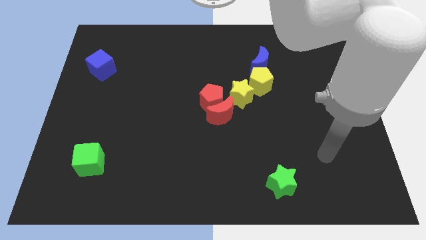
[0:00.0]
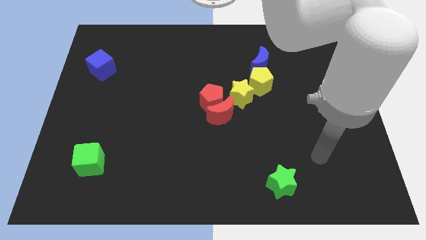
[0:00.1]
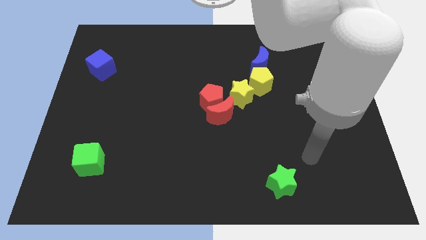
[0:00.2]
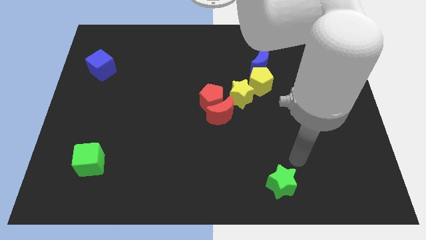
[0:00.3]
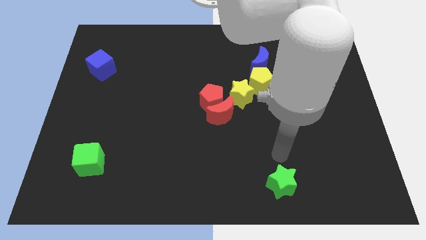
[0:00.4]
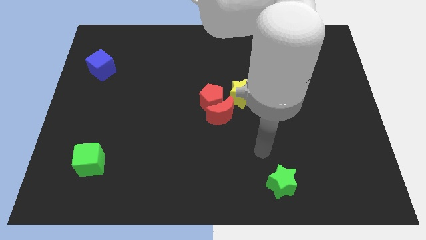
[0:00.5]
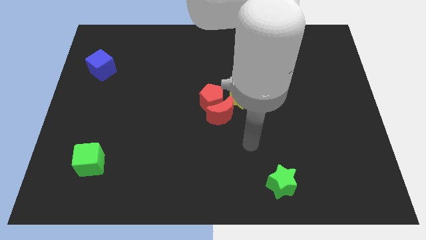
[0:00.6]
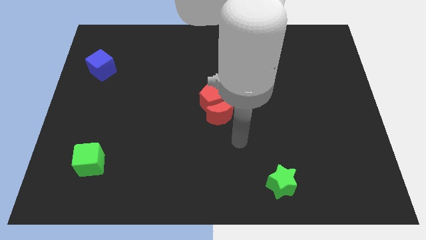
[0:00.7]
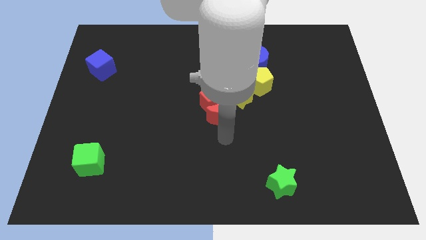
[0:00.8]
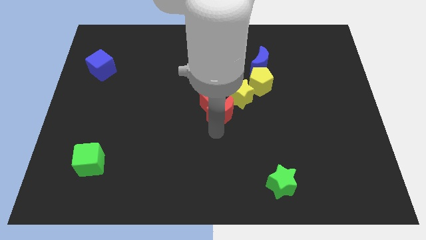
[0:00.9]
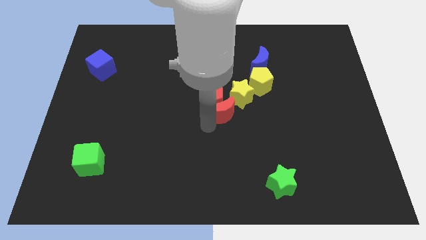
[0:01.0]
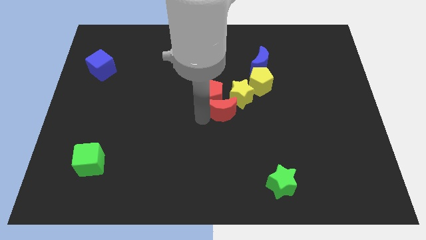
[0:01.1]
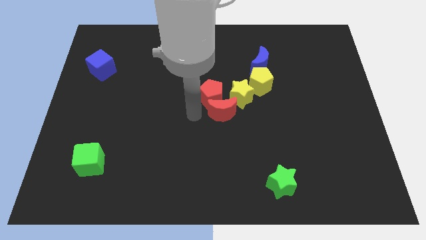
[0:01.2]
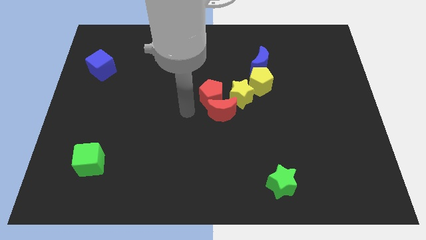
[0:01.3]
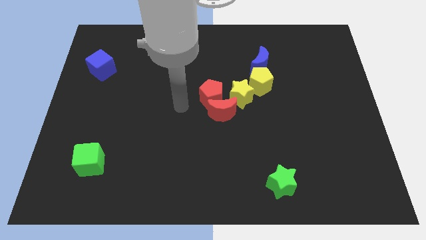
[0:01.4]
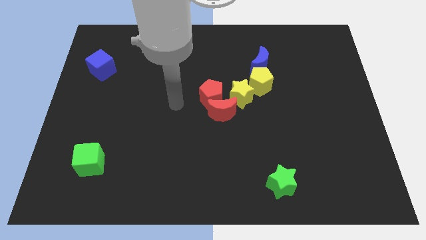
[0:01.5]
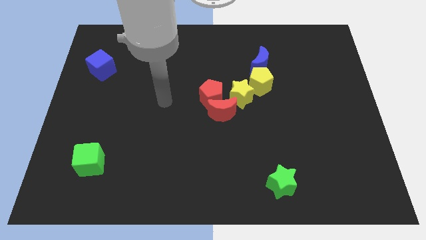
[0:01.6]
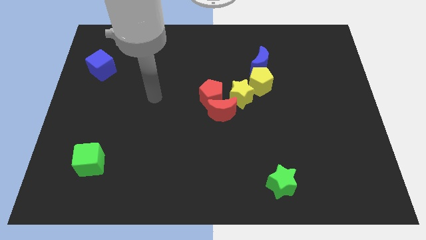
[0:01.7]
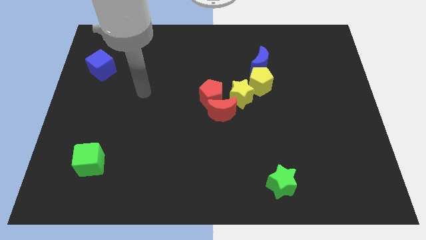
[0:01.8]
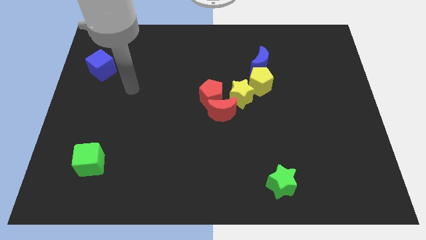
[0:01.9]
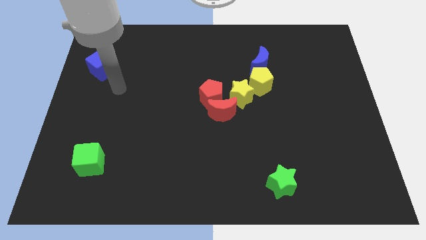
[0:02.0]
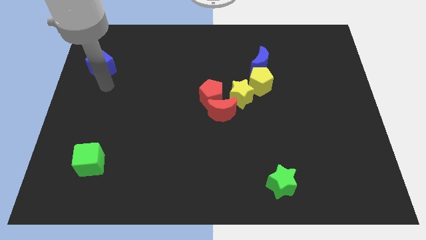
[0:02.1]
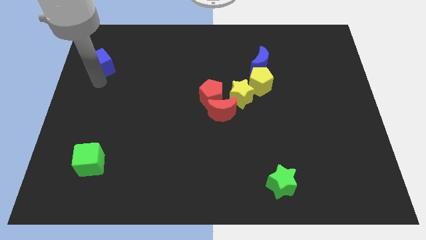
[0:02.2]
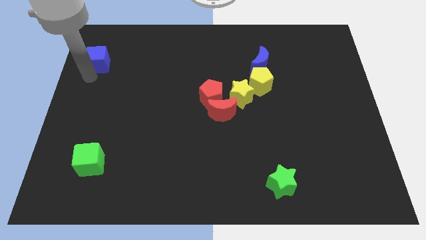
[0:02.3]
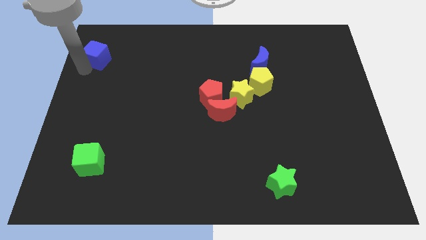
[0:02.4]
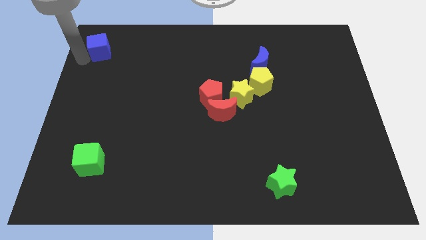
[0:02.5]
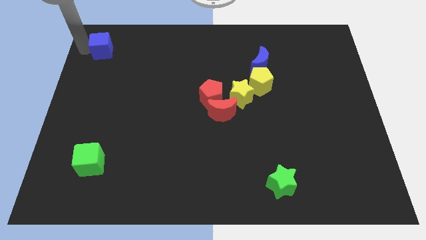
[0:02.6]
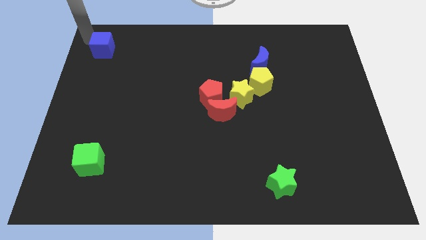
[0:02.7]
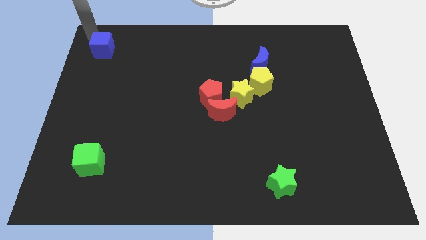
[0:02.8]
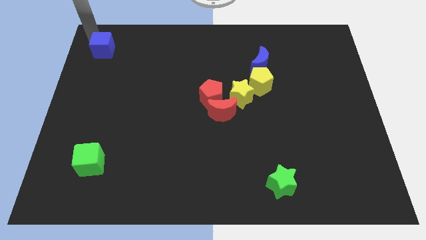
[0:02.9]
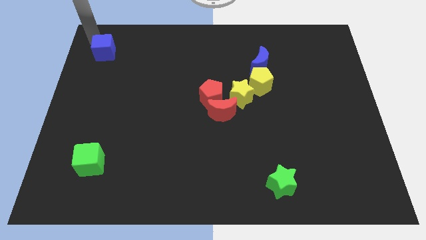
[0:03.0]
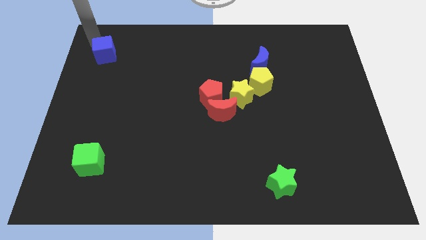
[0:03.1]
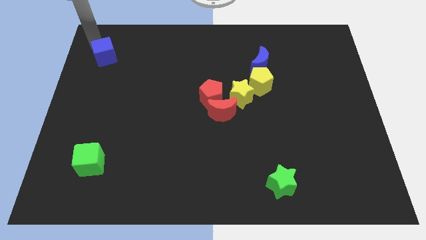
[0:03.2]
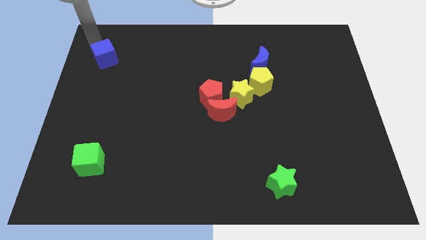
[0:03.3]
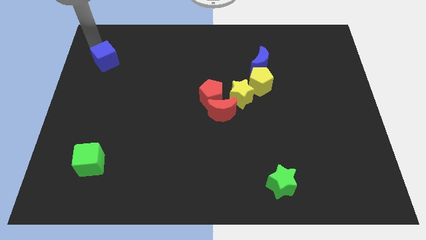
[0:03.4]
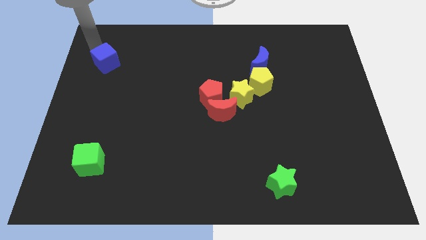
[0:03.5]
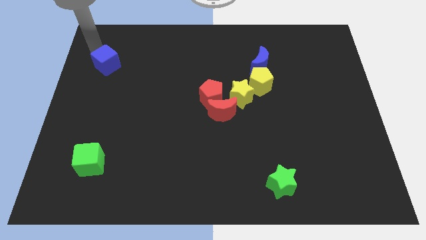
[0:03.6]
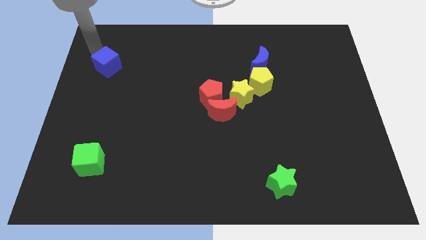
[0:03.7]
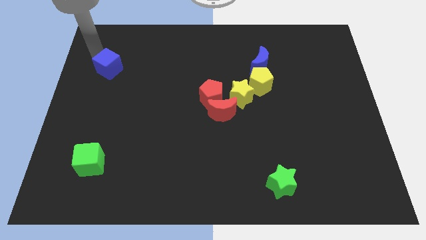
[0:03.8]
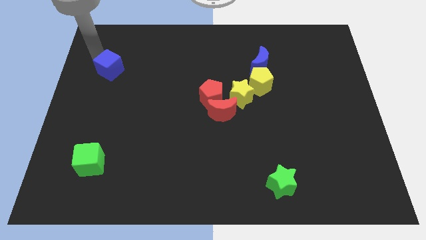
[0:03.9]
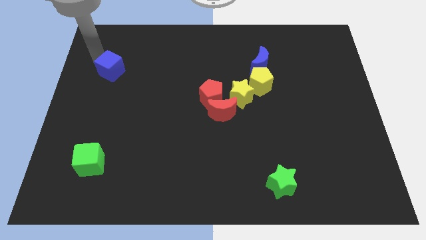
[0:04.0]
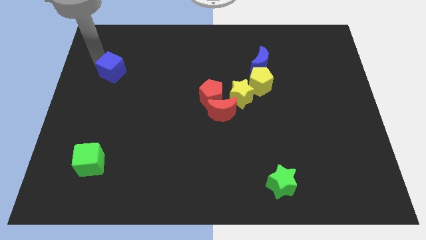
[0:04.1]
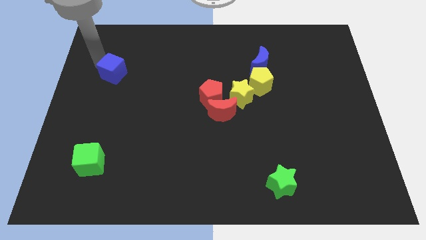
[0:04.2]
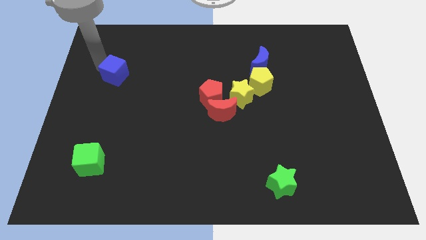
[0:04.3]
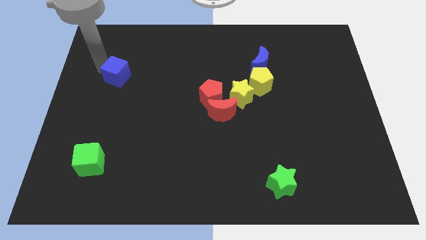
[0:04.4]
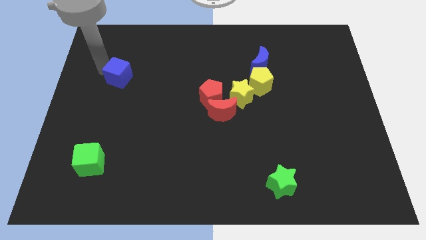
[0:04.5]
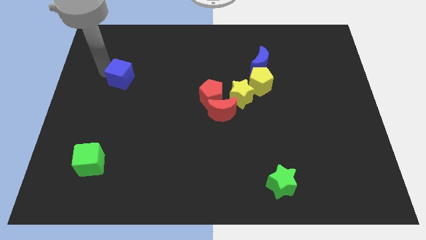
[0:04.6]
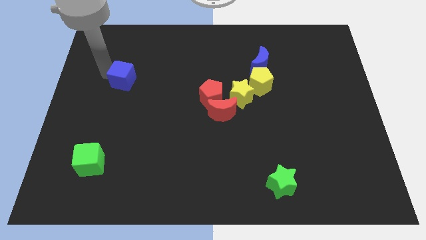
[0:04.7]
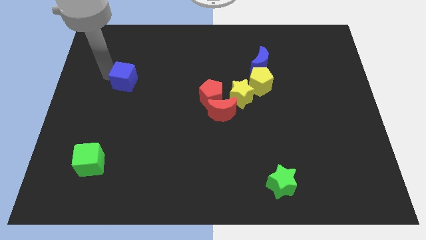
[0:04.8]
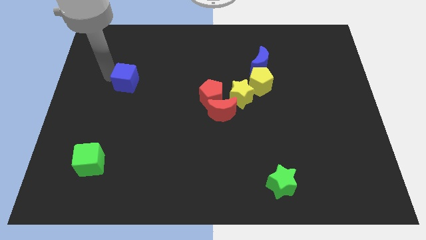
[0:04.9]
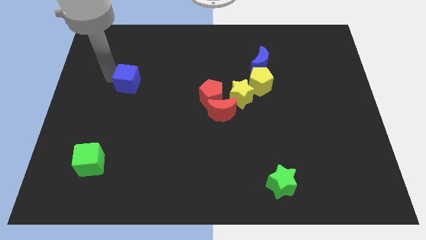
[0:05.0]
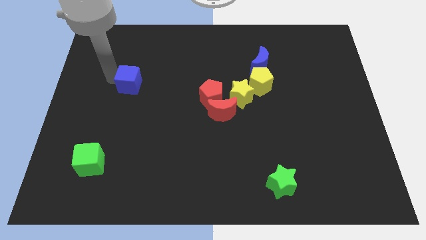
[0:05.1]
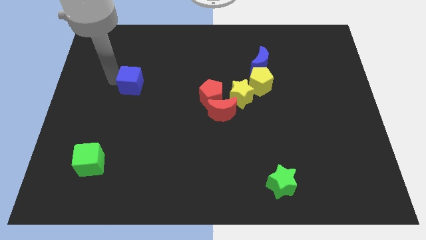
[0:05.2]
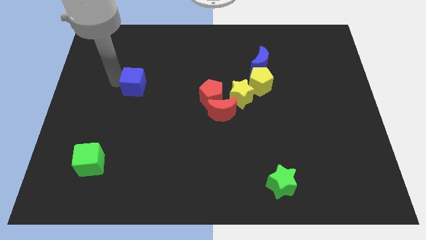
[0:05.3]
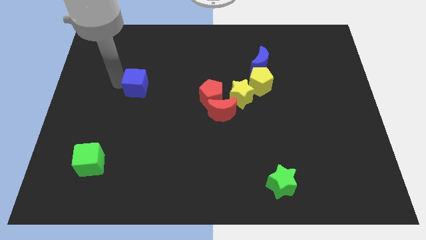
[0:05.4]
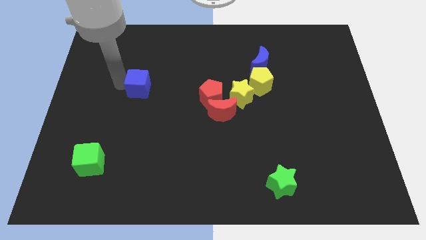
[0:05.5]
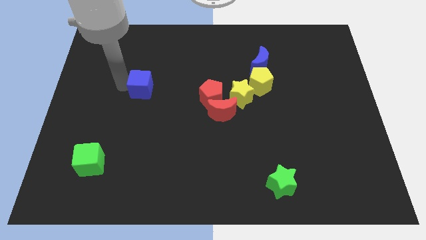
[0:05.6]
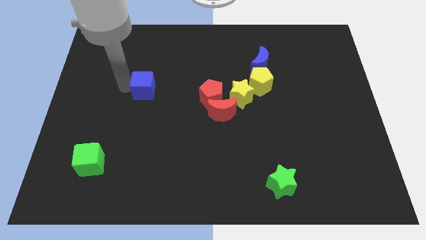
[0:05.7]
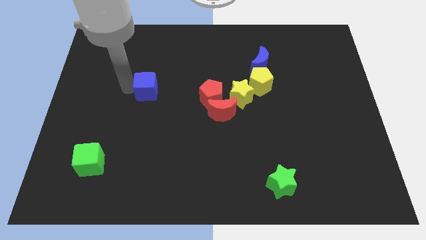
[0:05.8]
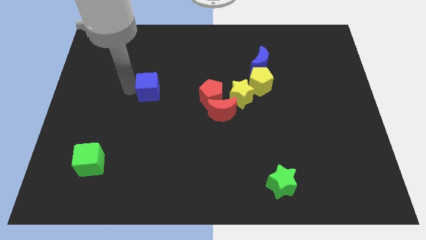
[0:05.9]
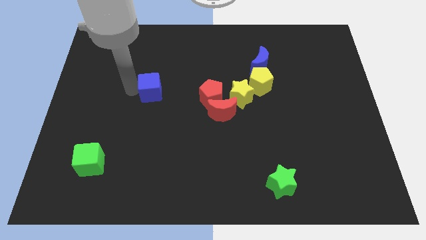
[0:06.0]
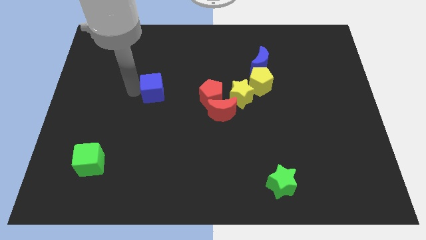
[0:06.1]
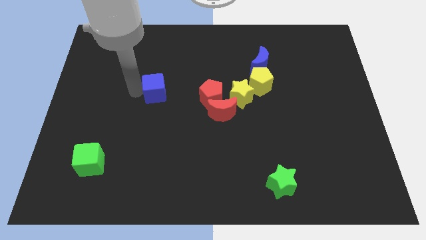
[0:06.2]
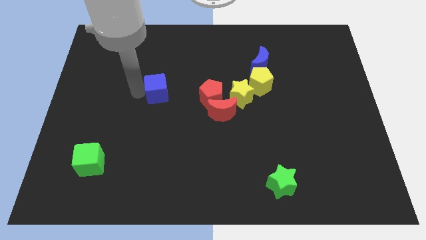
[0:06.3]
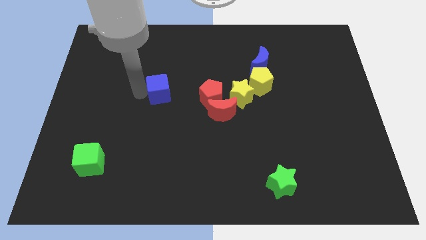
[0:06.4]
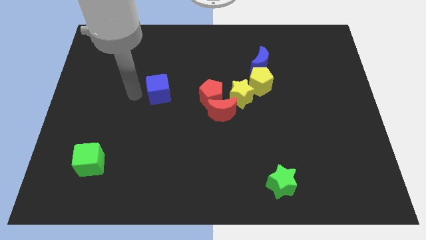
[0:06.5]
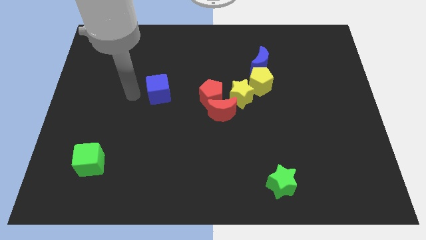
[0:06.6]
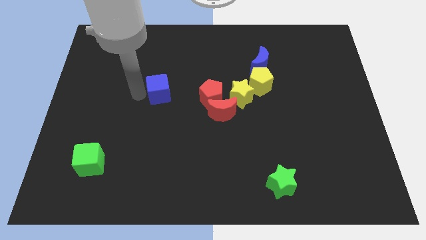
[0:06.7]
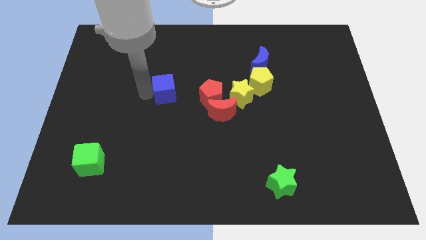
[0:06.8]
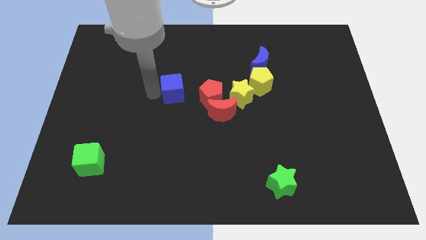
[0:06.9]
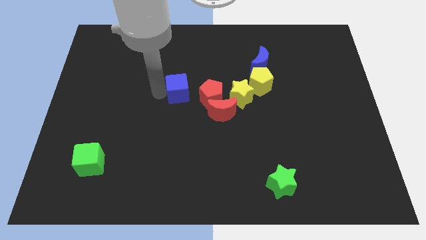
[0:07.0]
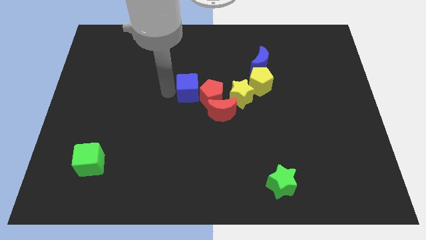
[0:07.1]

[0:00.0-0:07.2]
move the blue cube next to the red pentagon

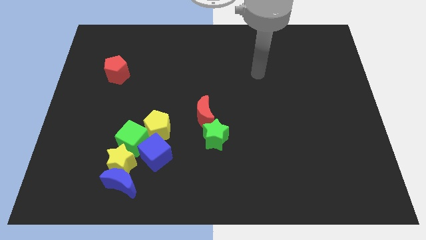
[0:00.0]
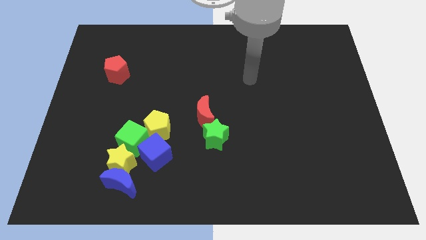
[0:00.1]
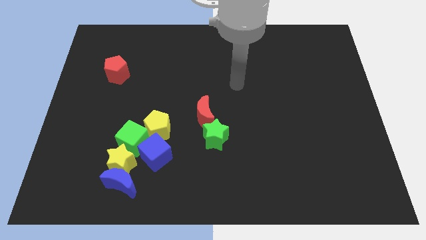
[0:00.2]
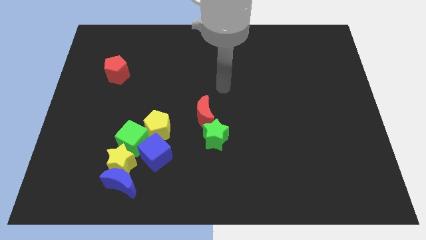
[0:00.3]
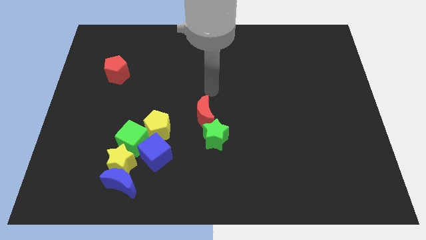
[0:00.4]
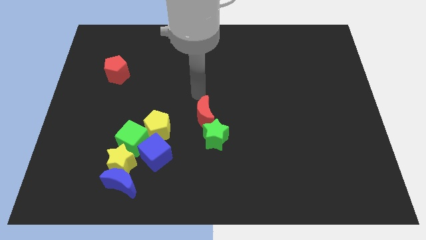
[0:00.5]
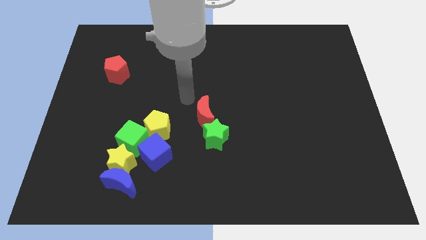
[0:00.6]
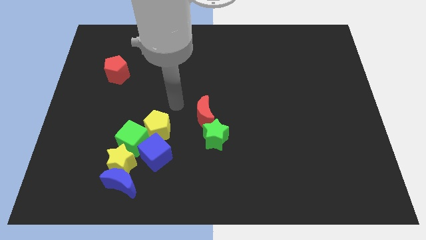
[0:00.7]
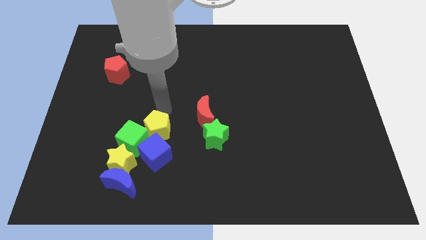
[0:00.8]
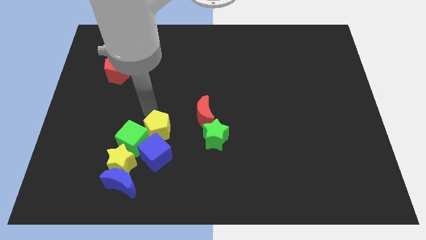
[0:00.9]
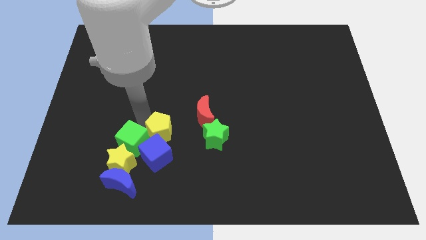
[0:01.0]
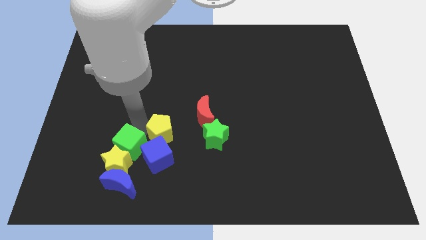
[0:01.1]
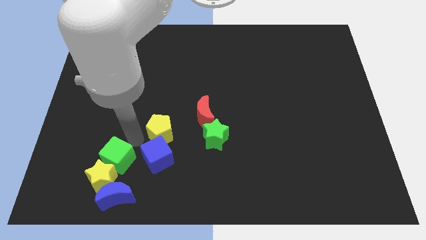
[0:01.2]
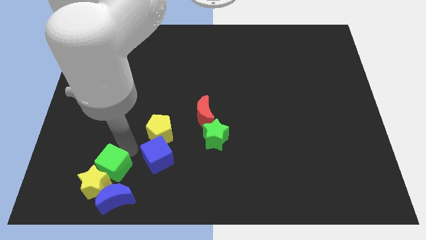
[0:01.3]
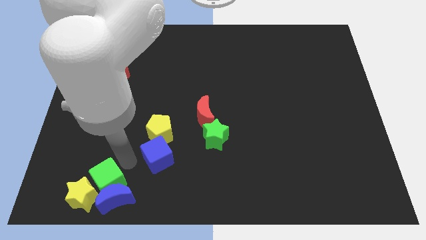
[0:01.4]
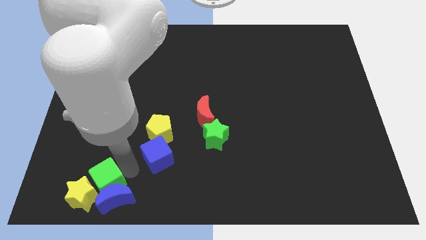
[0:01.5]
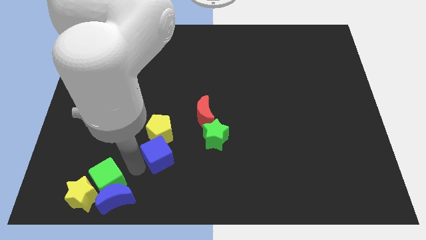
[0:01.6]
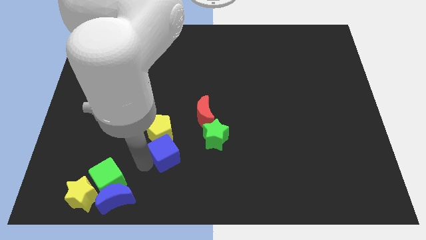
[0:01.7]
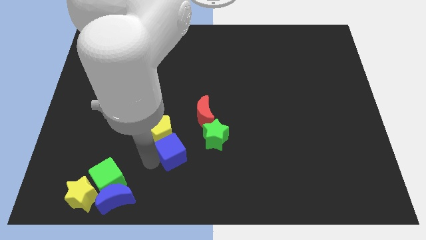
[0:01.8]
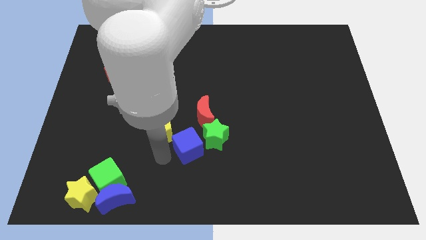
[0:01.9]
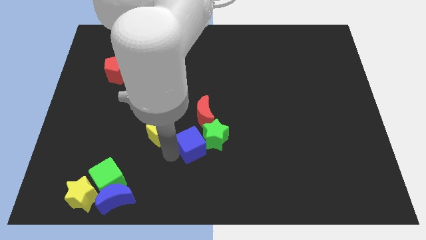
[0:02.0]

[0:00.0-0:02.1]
put the blue cube close to the green star
